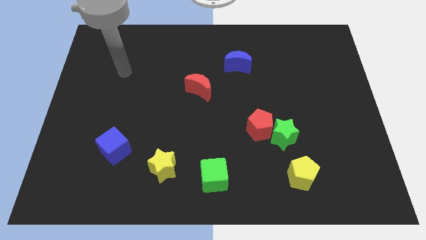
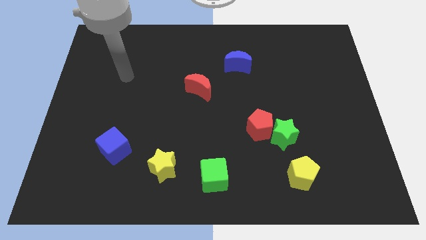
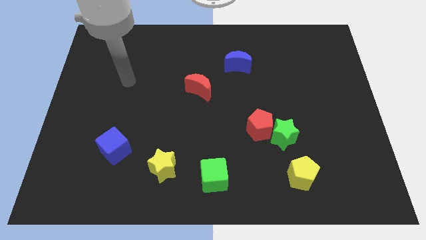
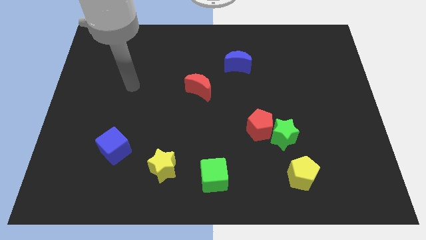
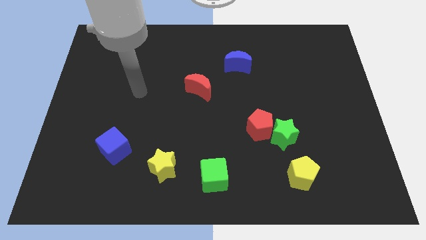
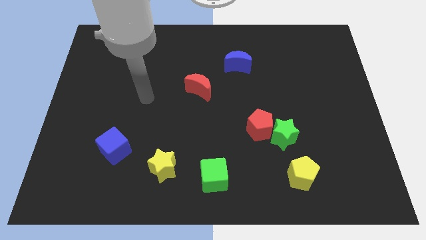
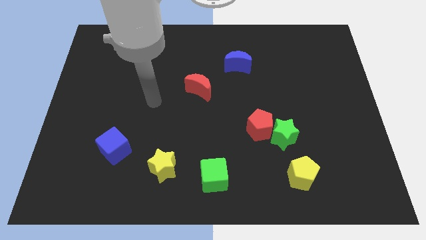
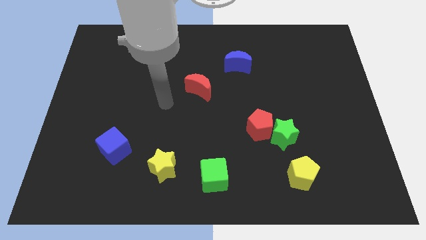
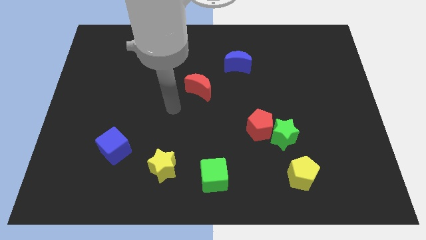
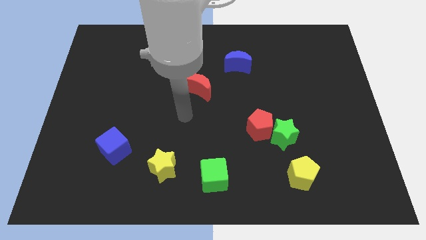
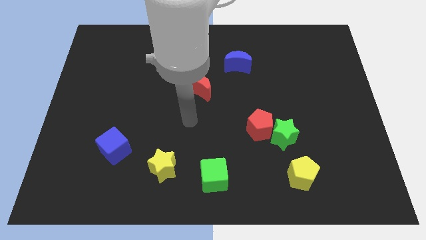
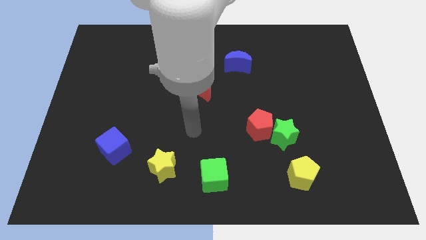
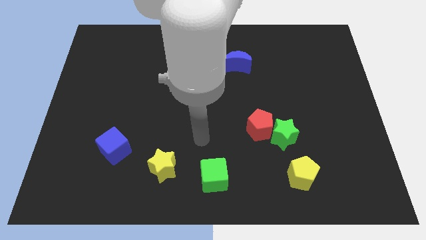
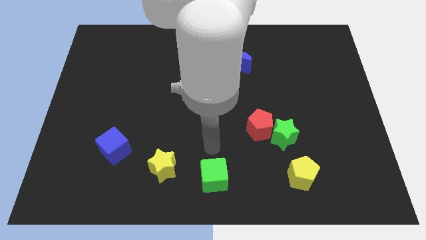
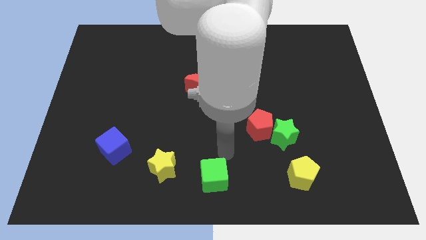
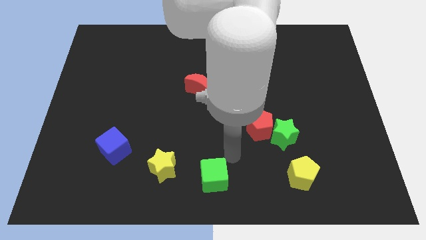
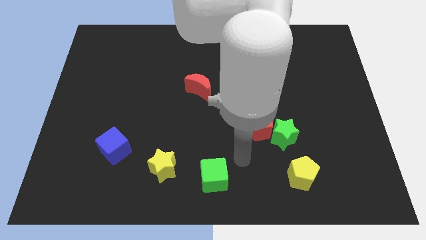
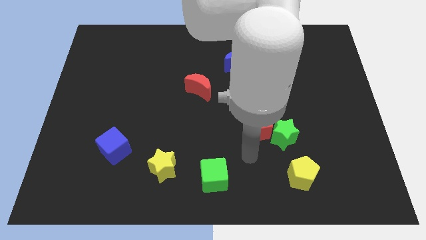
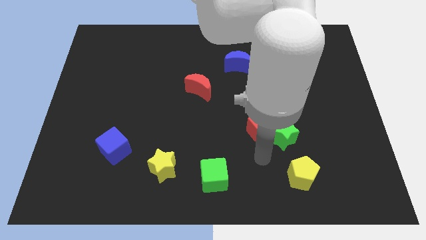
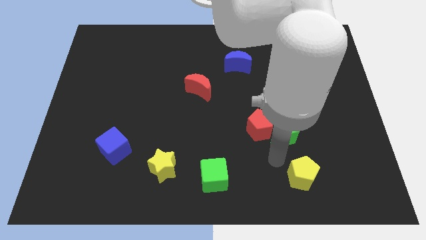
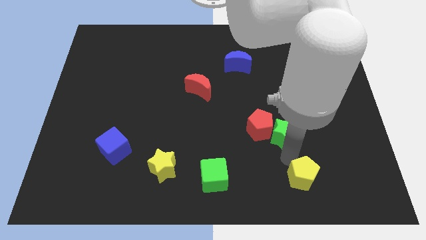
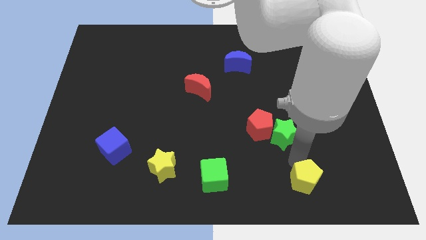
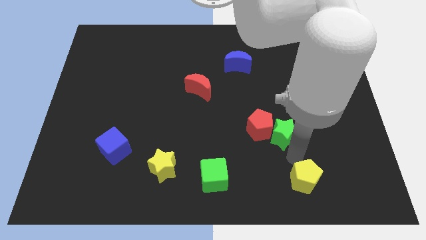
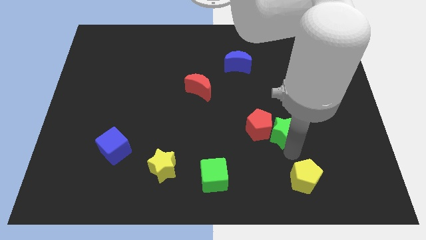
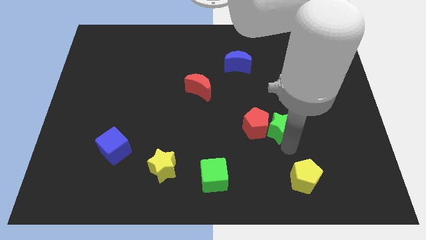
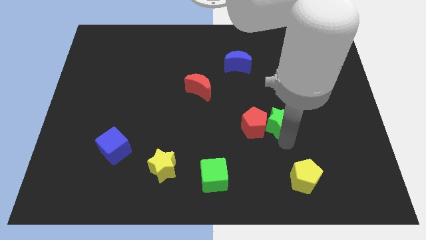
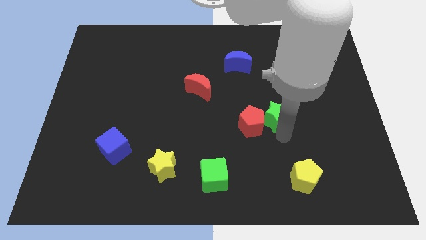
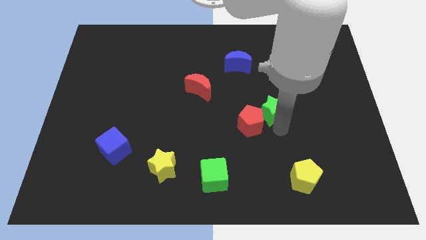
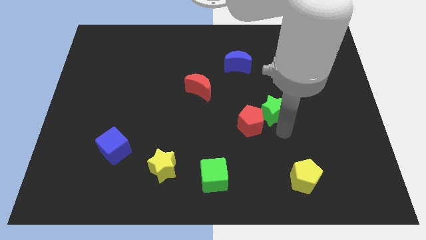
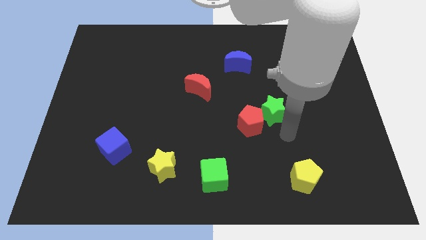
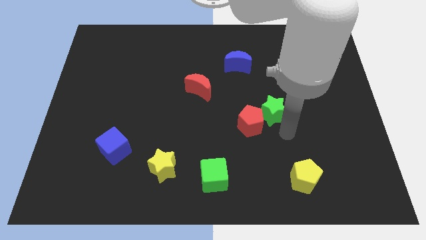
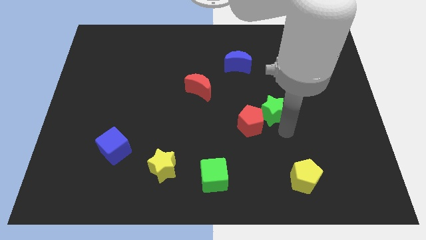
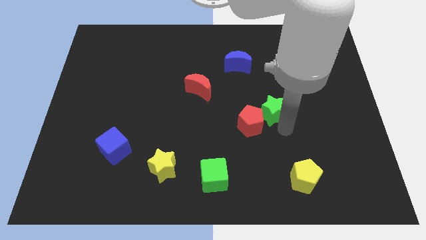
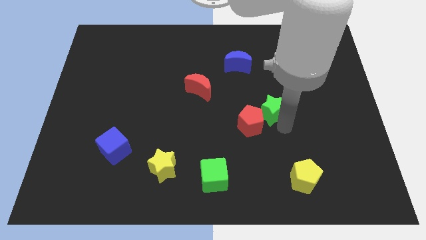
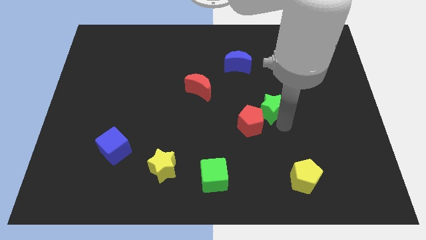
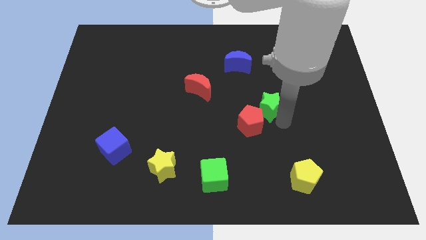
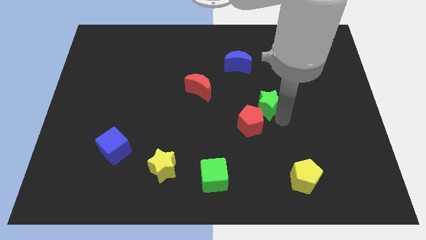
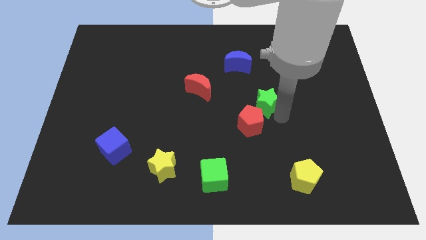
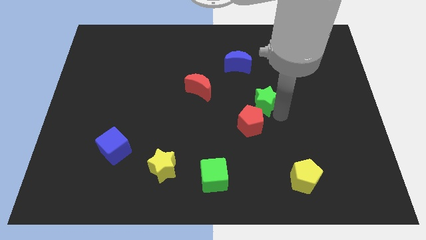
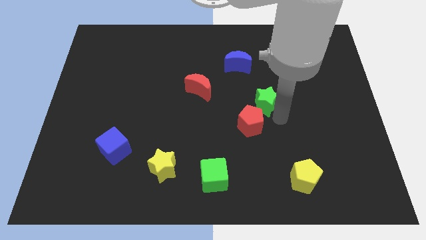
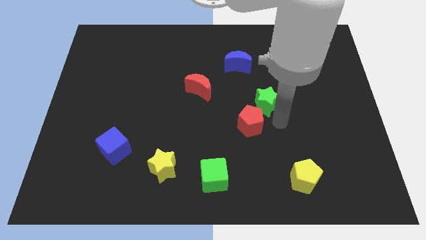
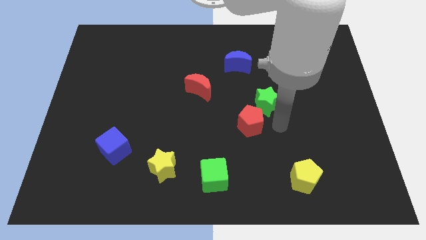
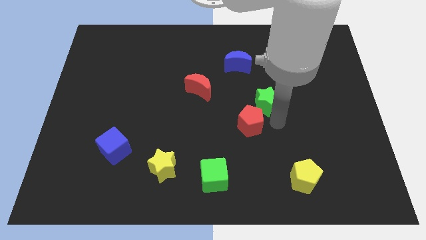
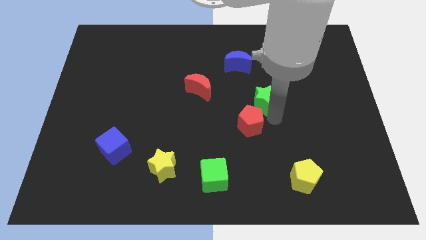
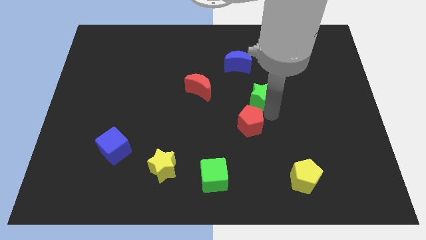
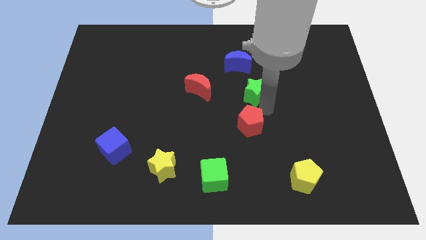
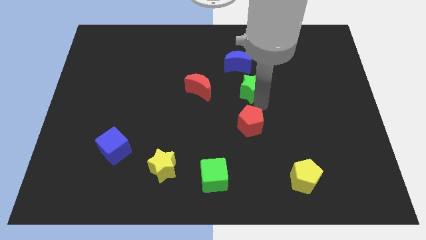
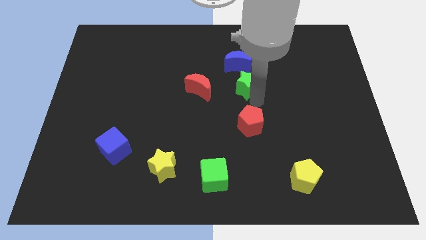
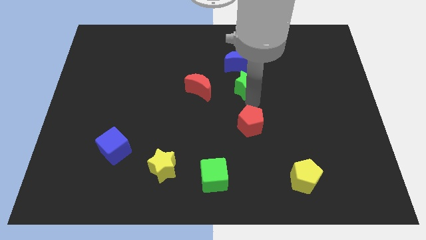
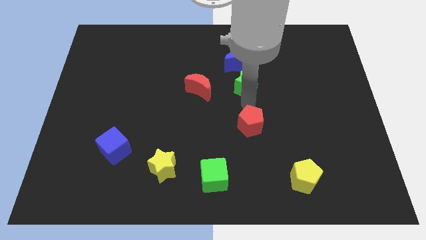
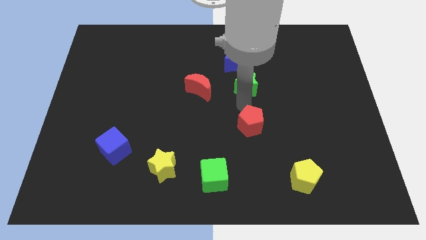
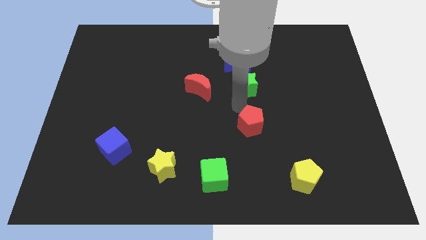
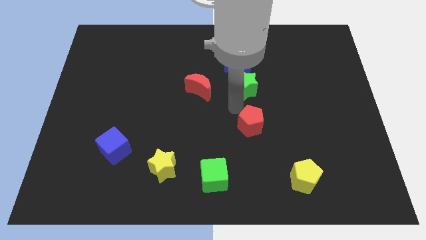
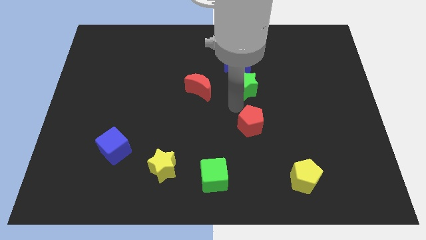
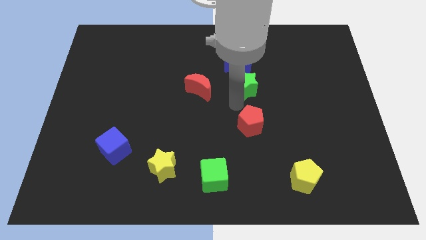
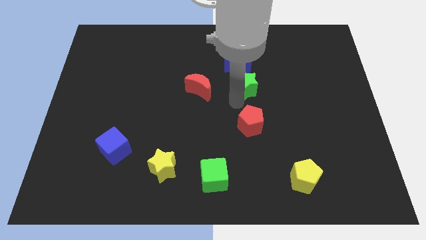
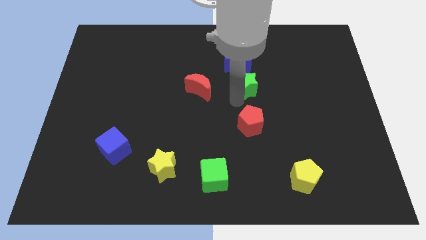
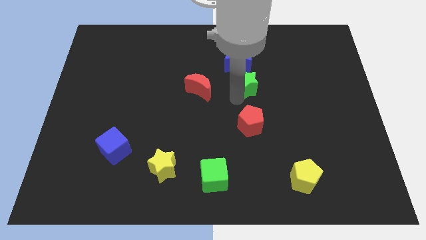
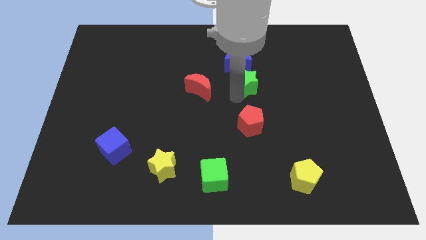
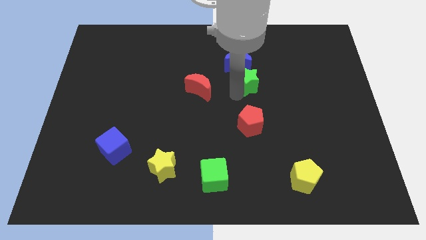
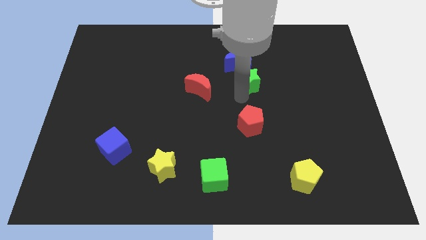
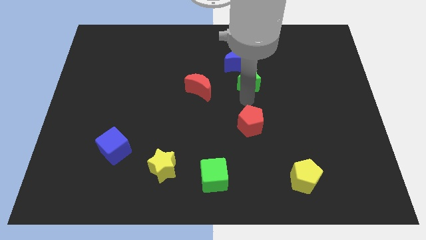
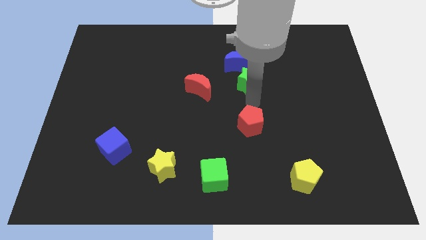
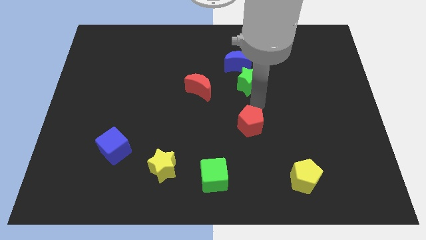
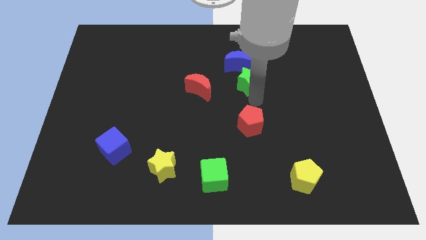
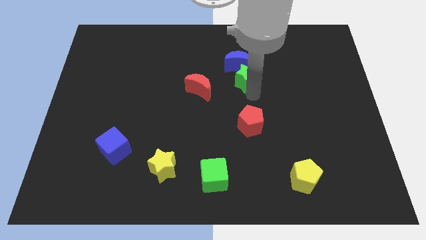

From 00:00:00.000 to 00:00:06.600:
push the green star to the blue moon

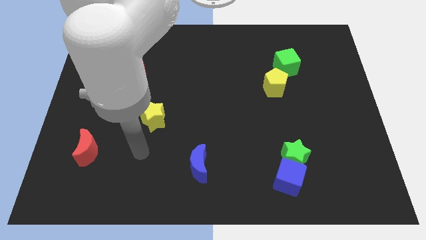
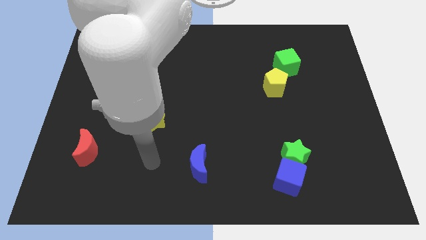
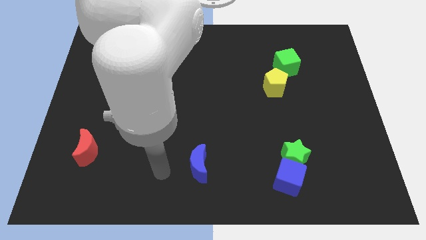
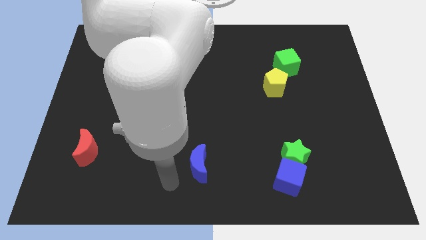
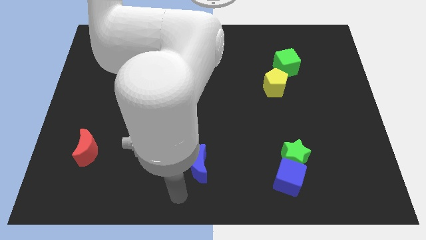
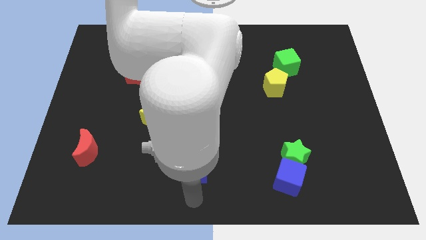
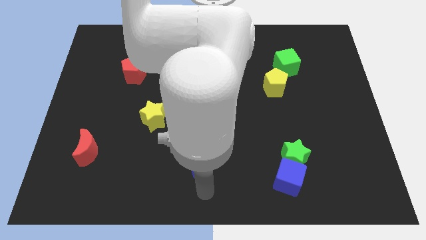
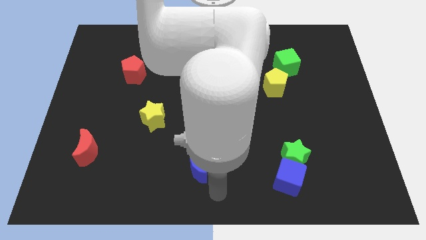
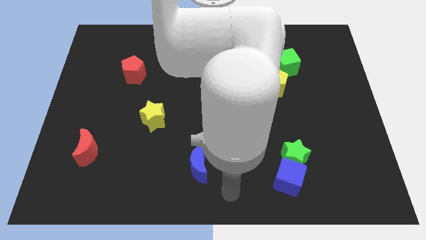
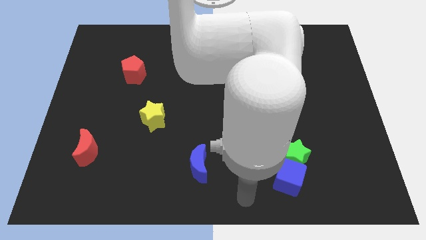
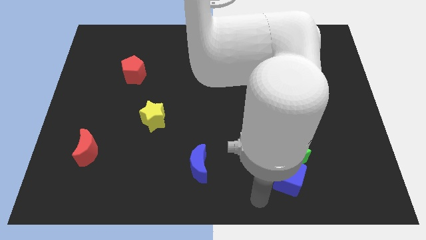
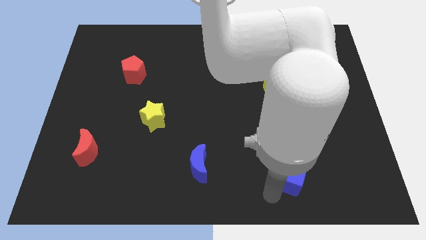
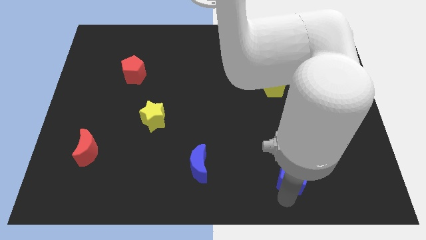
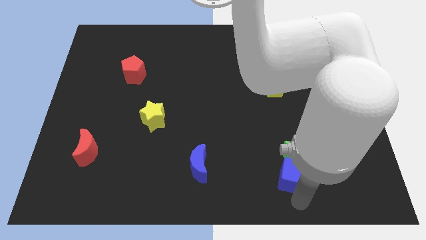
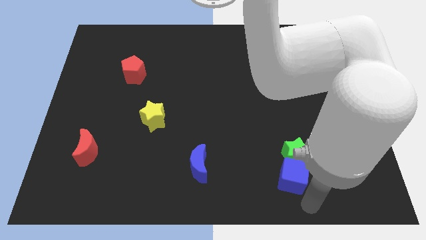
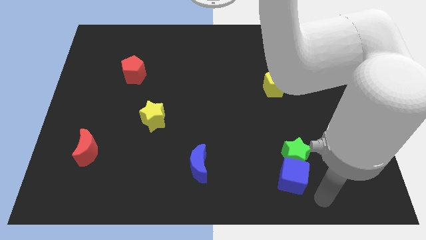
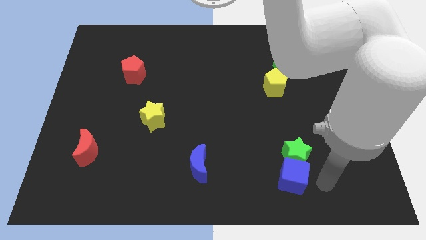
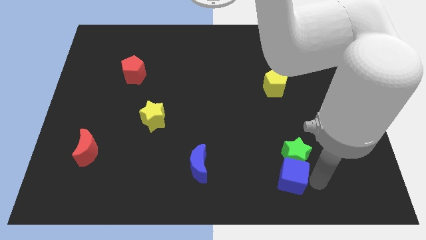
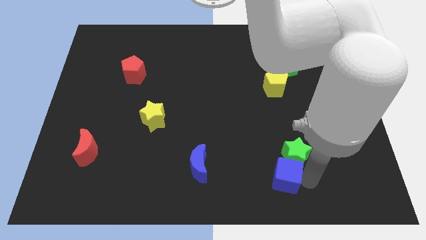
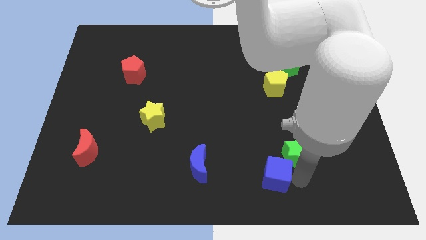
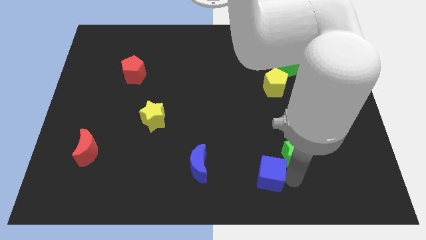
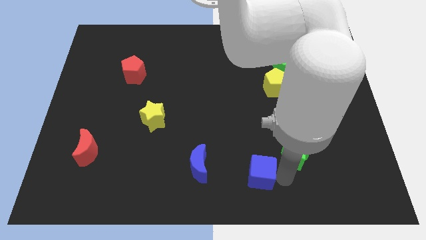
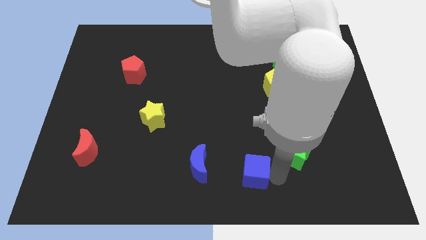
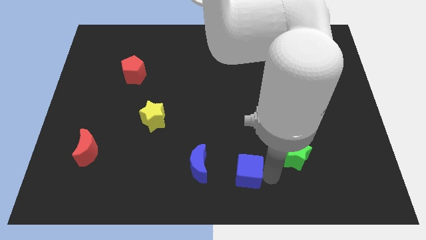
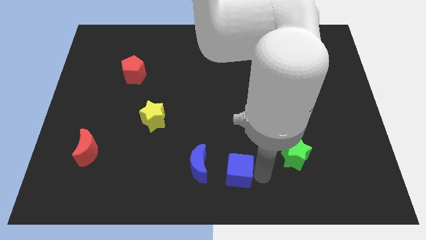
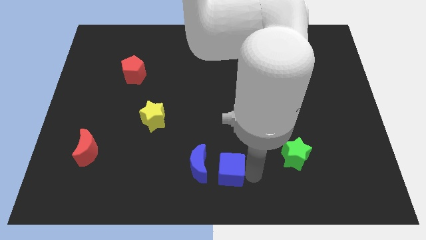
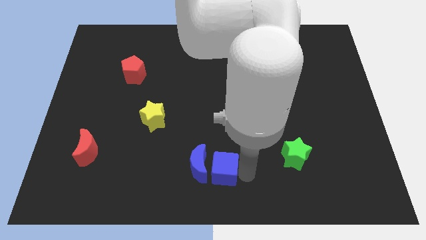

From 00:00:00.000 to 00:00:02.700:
move the blue cube next to the blue moon
